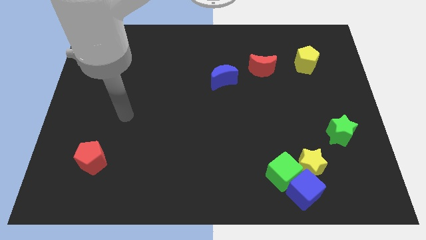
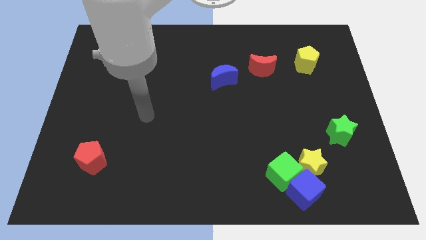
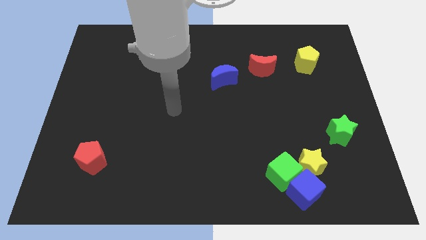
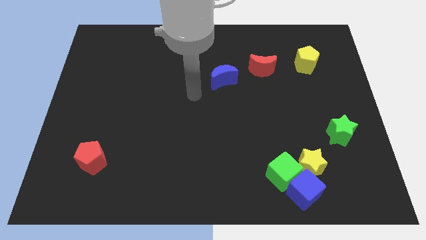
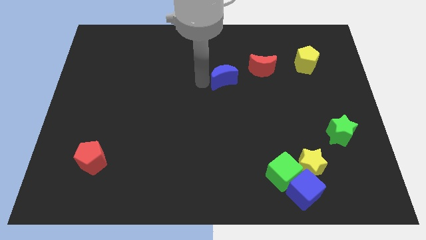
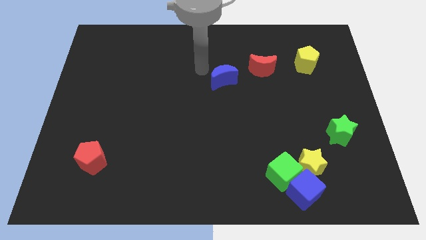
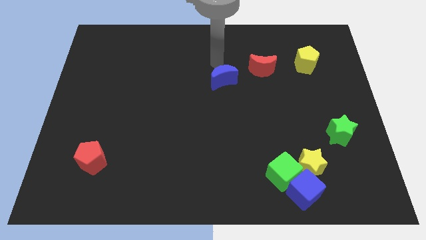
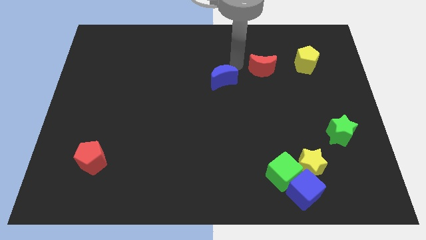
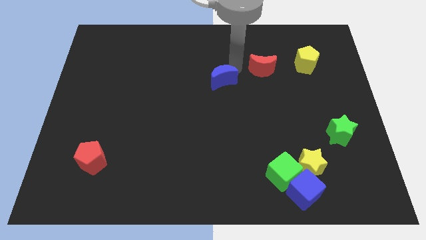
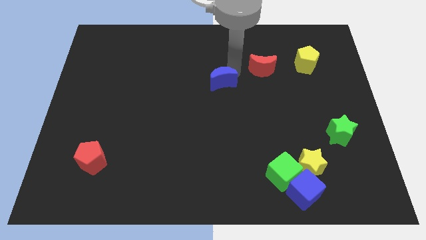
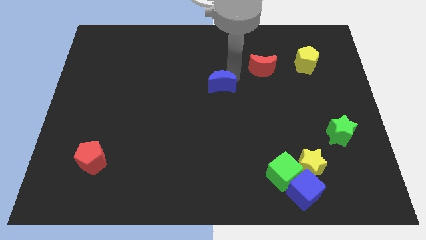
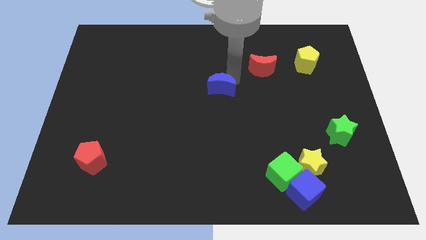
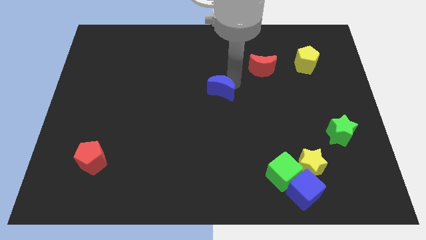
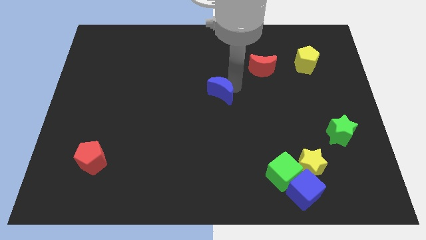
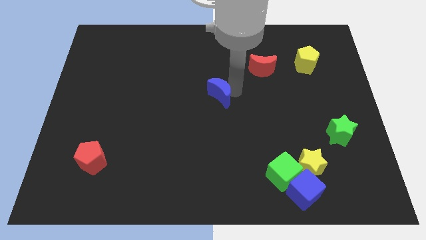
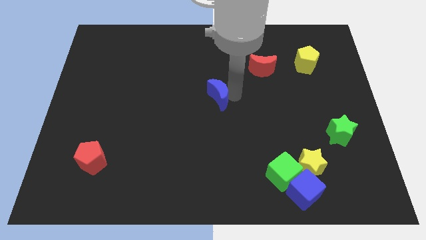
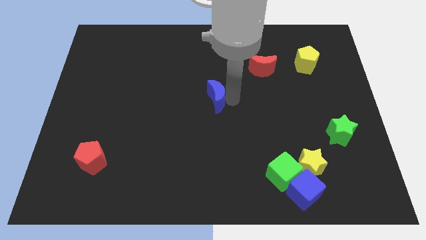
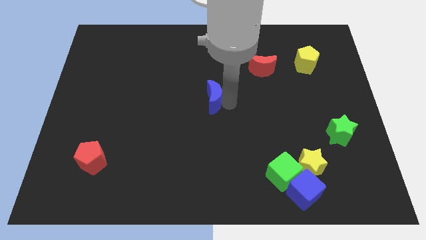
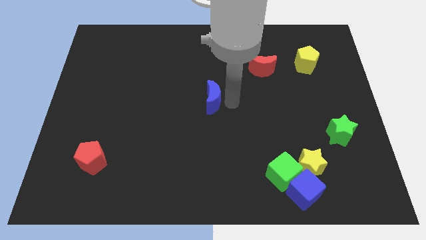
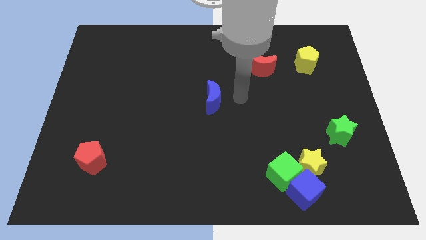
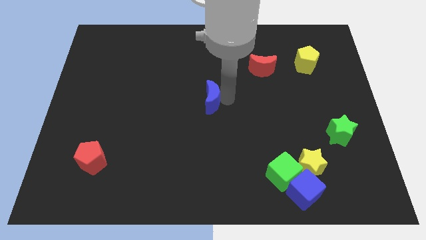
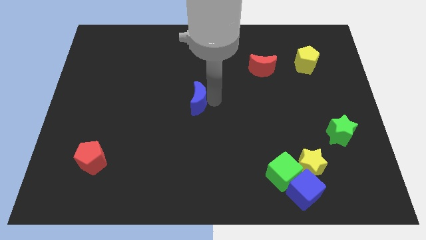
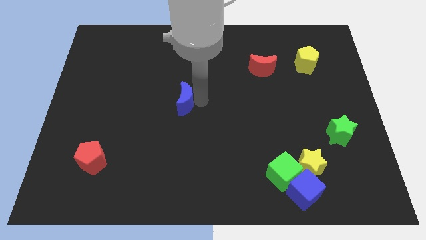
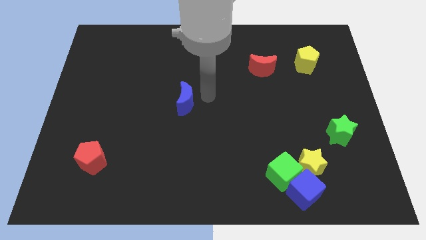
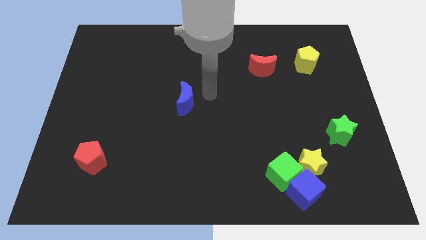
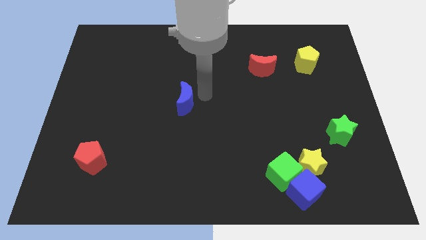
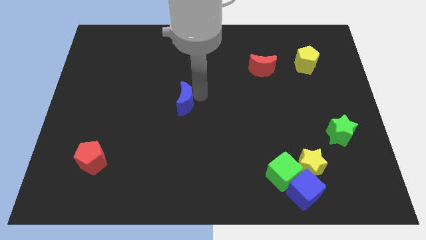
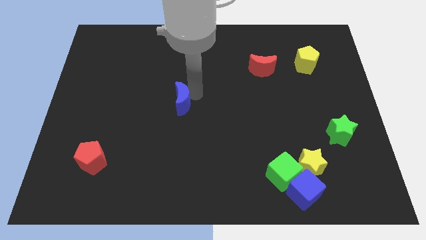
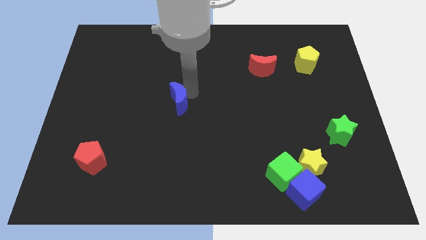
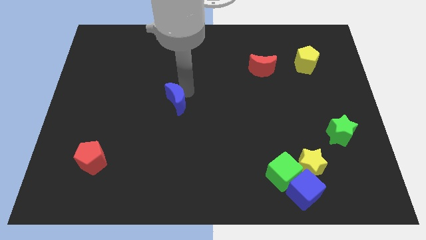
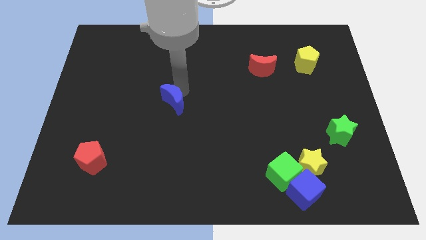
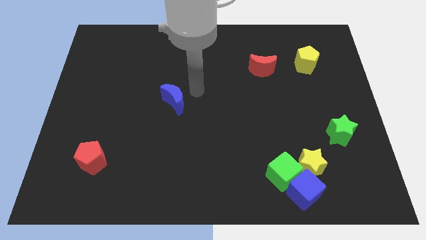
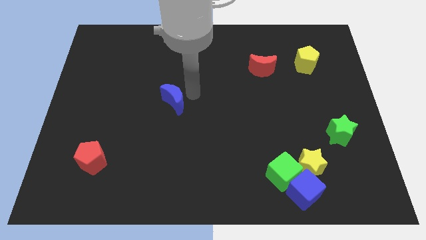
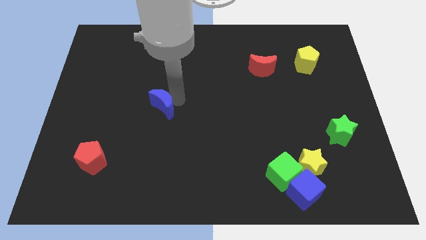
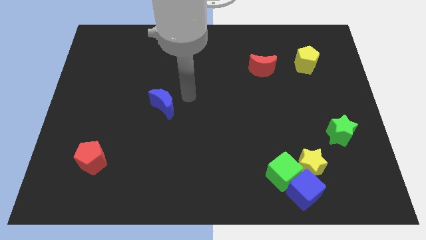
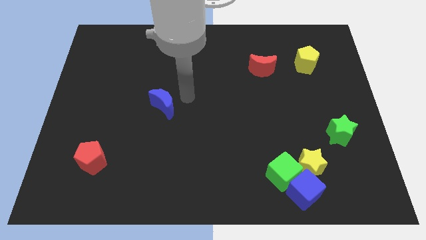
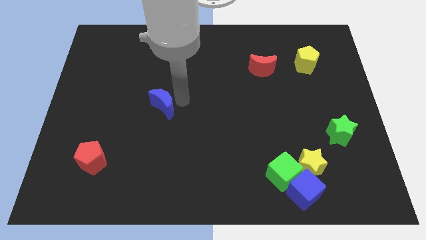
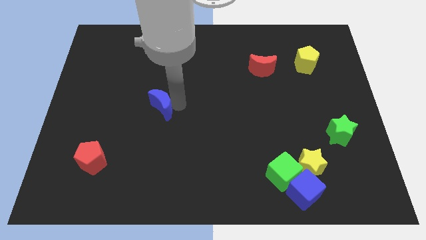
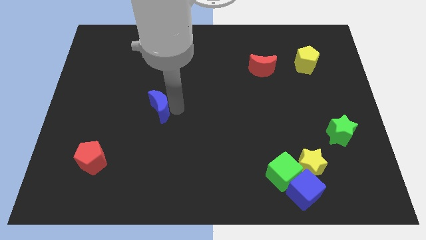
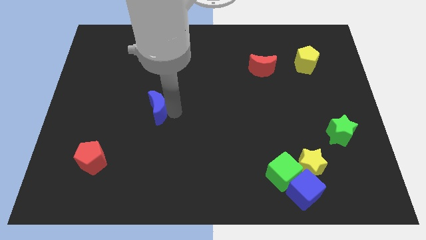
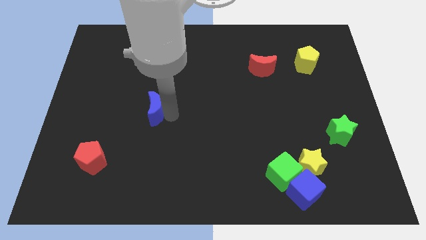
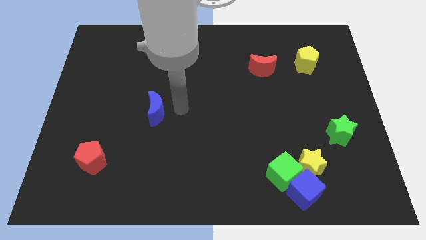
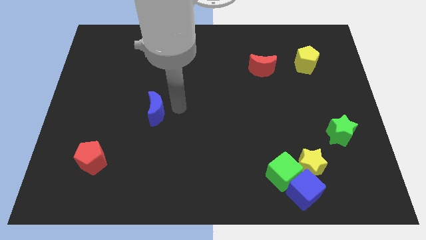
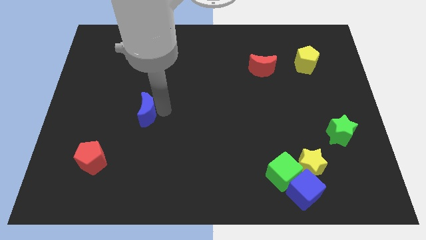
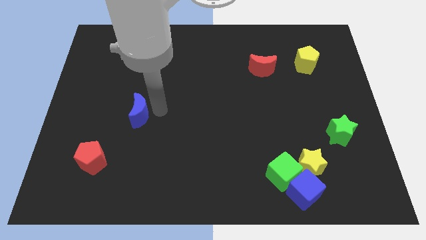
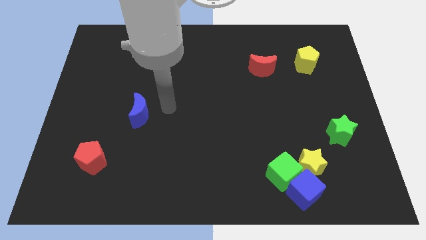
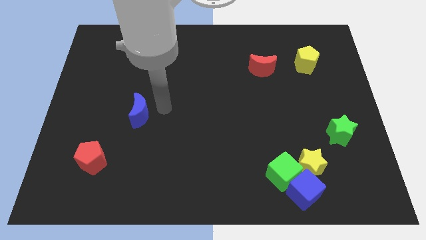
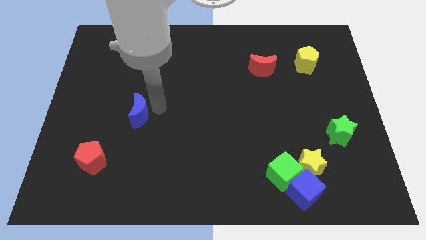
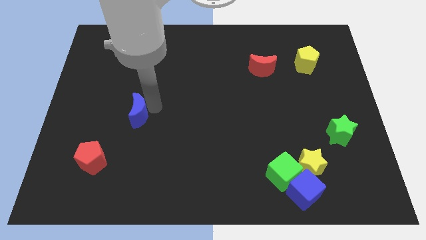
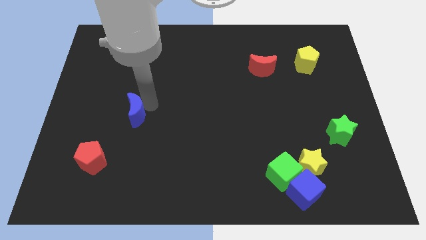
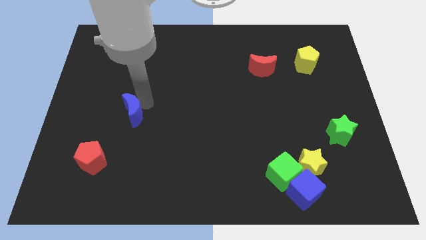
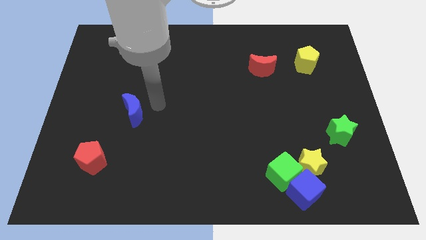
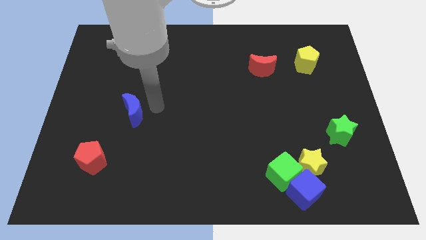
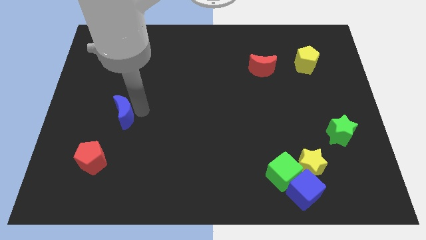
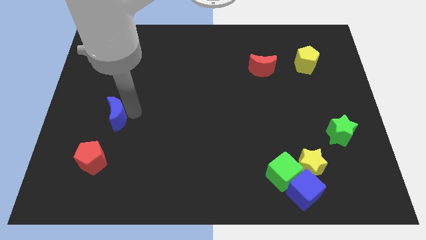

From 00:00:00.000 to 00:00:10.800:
put the blue moon above the red pentagon
